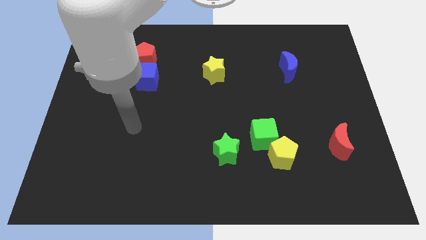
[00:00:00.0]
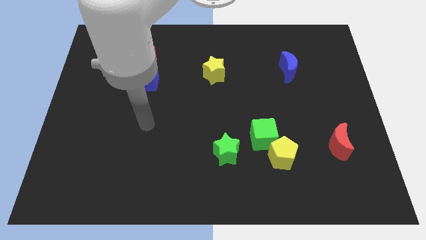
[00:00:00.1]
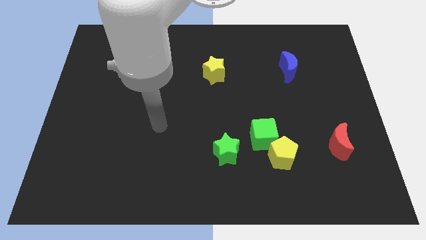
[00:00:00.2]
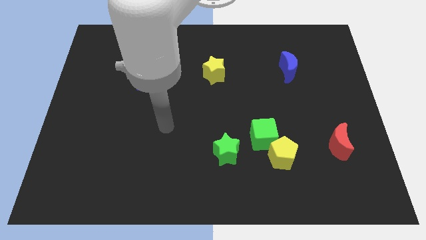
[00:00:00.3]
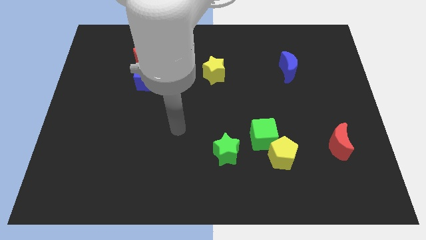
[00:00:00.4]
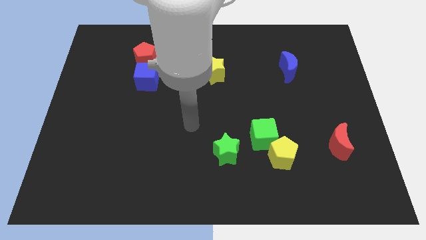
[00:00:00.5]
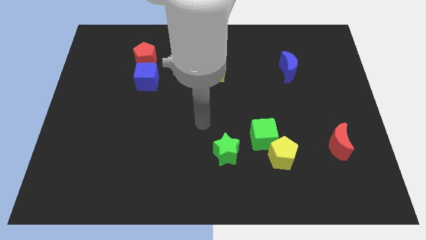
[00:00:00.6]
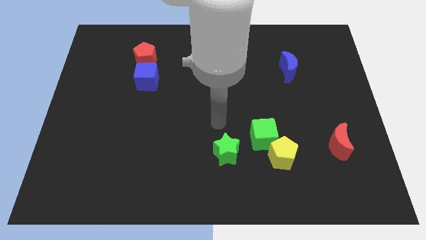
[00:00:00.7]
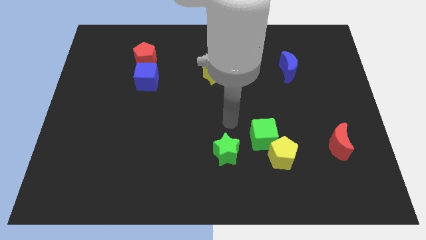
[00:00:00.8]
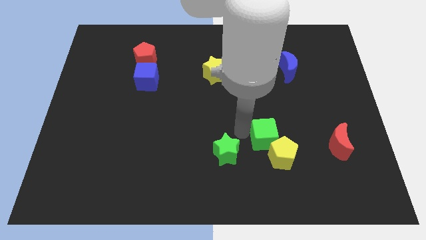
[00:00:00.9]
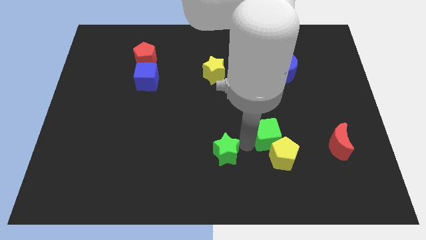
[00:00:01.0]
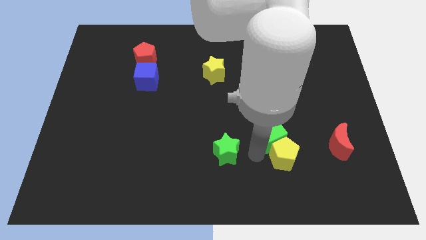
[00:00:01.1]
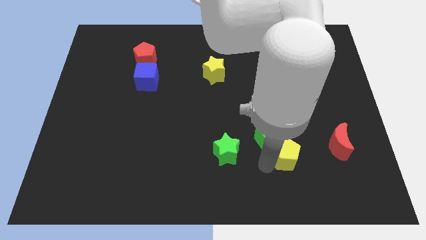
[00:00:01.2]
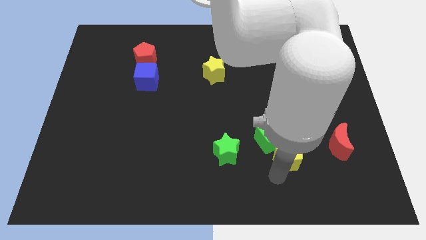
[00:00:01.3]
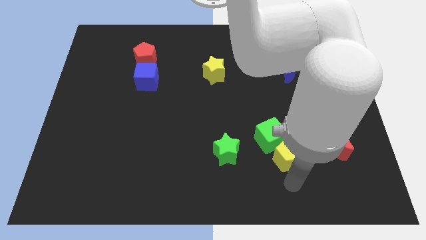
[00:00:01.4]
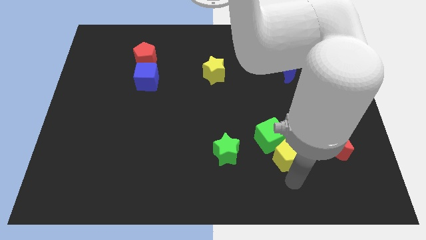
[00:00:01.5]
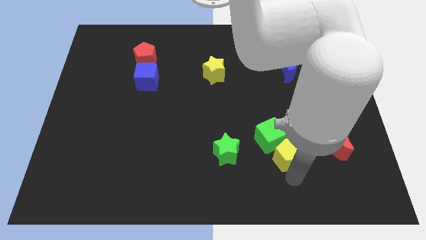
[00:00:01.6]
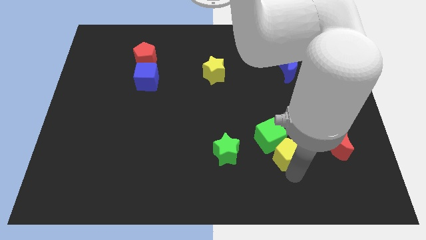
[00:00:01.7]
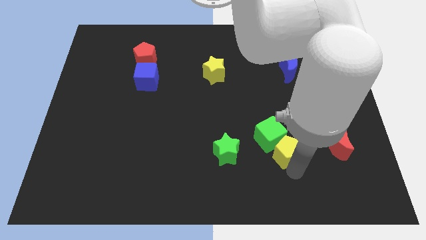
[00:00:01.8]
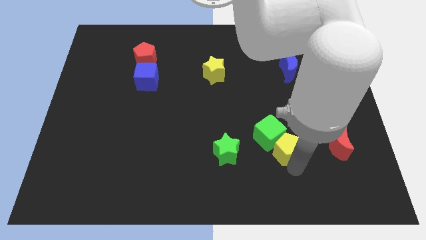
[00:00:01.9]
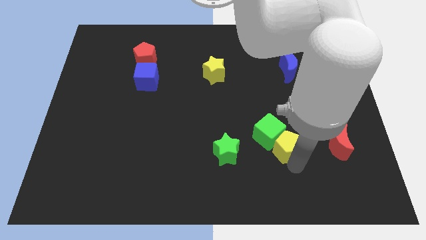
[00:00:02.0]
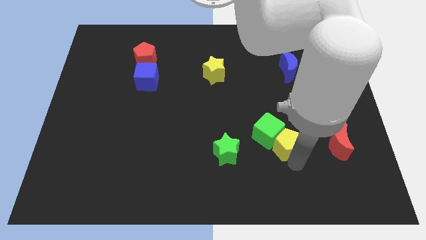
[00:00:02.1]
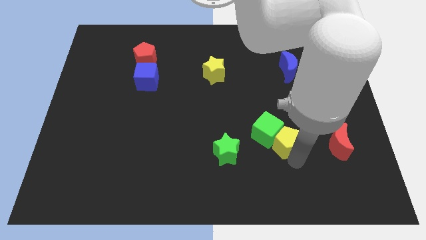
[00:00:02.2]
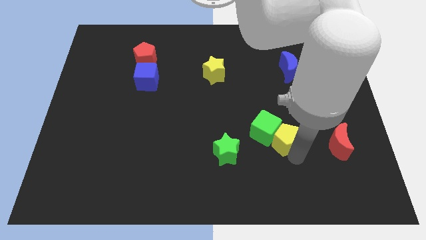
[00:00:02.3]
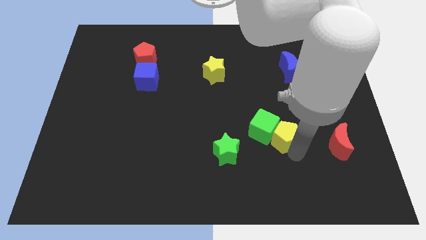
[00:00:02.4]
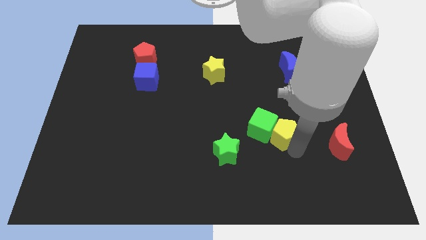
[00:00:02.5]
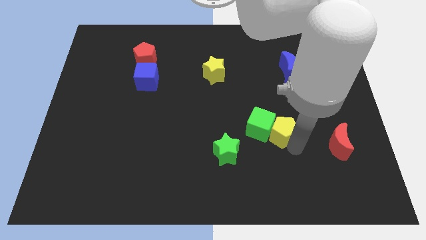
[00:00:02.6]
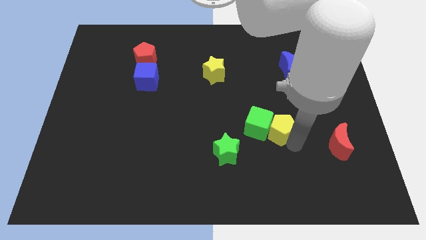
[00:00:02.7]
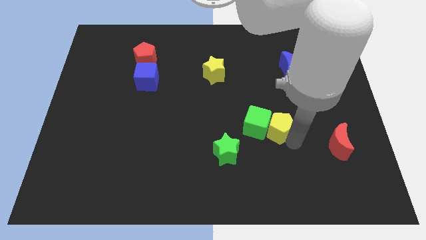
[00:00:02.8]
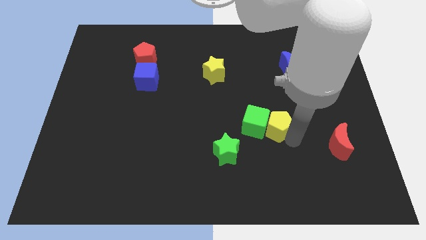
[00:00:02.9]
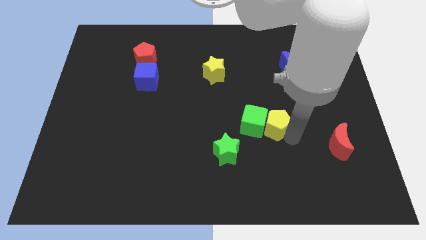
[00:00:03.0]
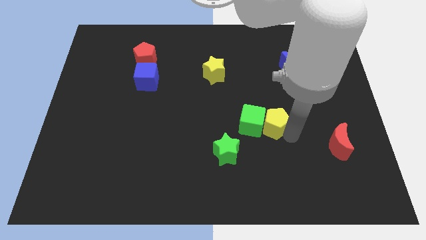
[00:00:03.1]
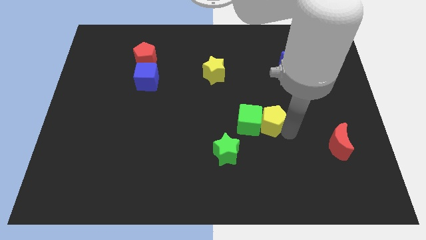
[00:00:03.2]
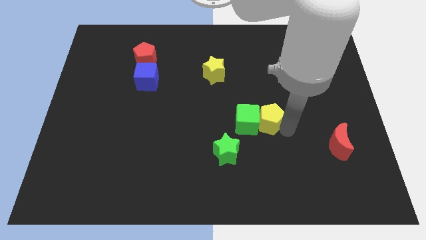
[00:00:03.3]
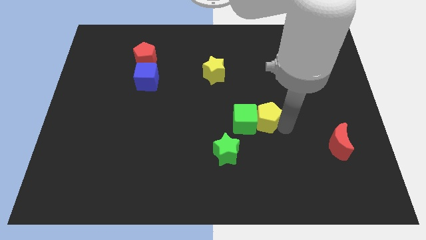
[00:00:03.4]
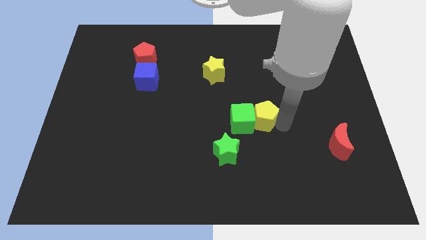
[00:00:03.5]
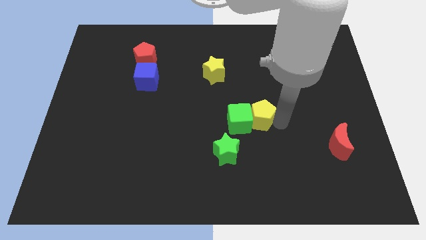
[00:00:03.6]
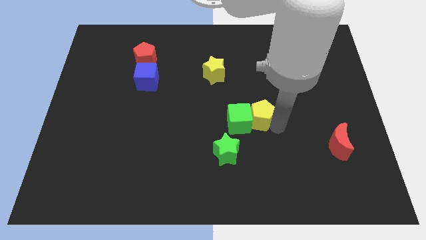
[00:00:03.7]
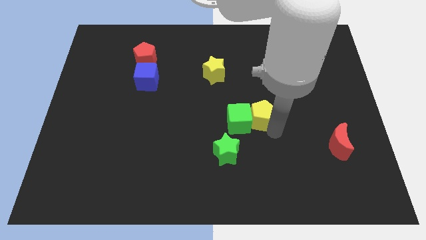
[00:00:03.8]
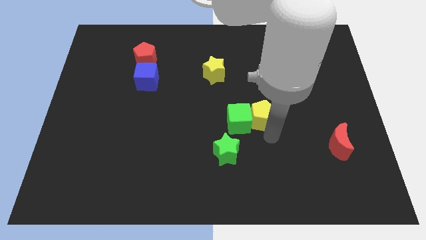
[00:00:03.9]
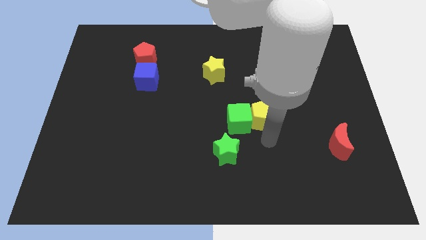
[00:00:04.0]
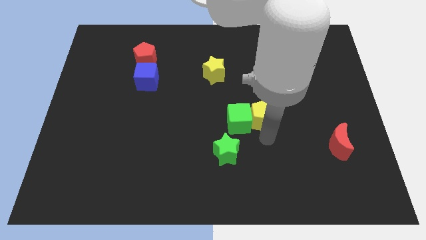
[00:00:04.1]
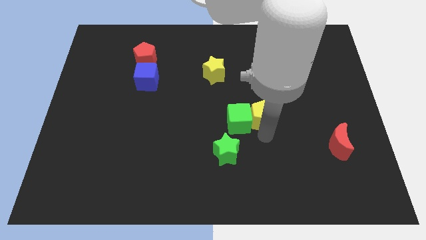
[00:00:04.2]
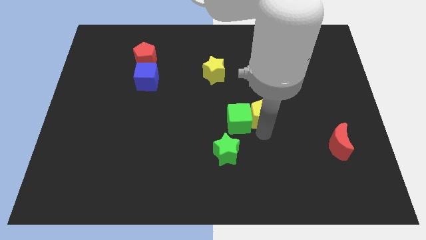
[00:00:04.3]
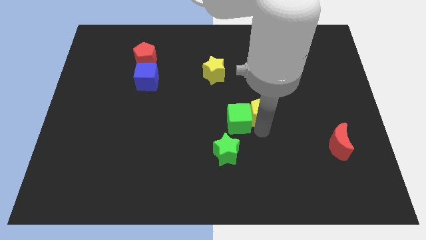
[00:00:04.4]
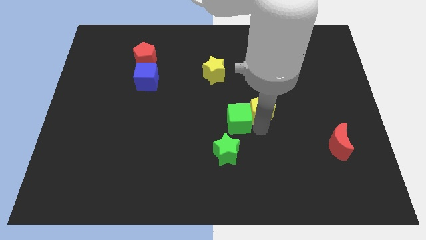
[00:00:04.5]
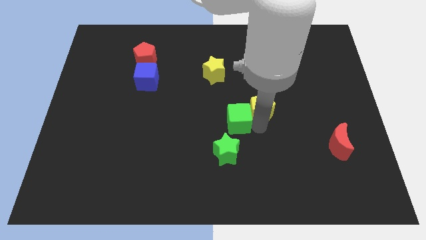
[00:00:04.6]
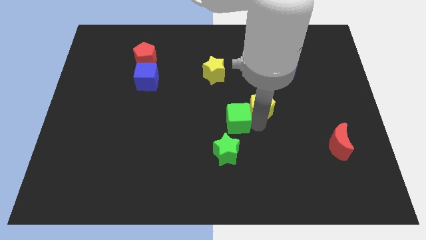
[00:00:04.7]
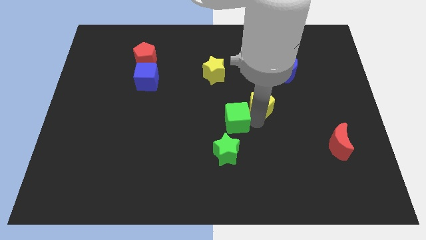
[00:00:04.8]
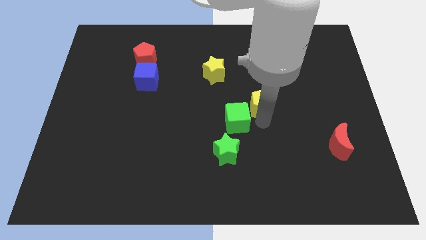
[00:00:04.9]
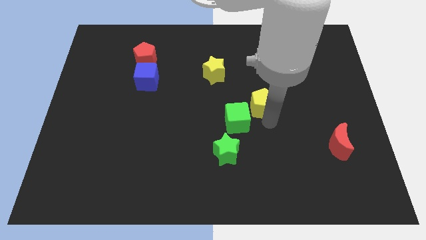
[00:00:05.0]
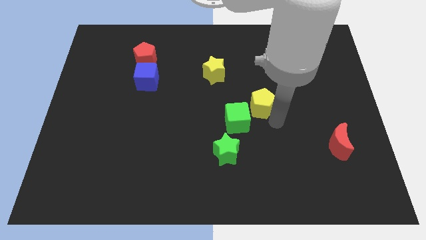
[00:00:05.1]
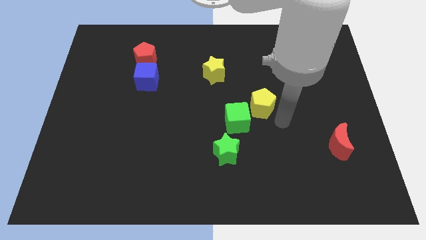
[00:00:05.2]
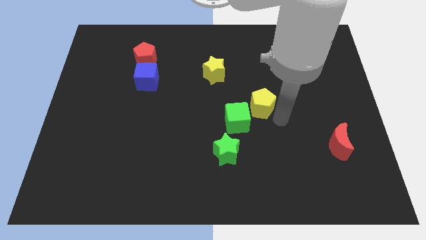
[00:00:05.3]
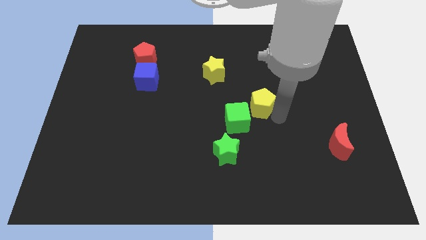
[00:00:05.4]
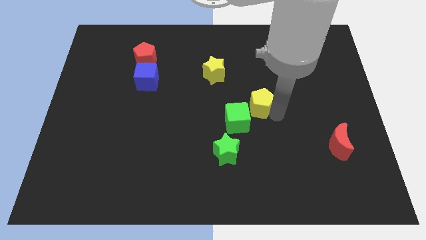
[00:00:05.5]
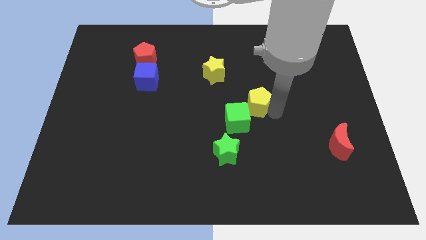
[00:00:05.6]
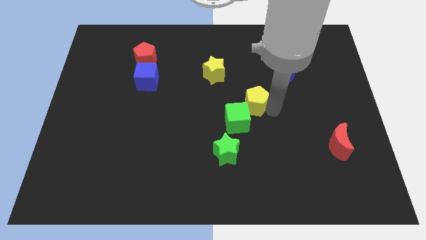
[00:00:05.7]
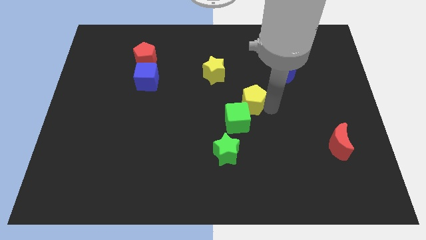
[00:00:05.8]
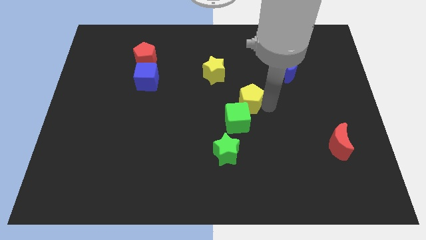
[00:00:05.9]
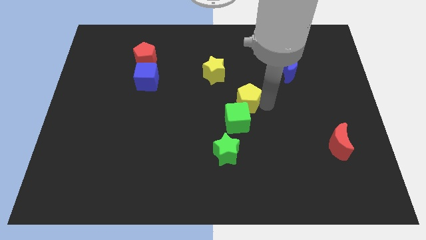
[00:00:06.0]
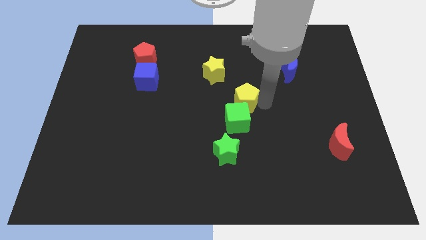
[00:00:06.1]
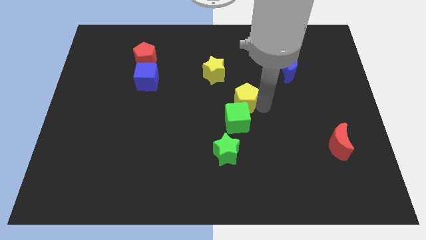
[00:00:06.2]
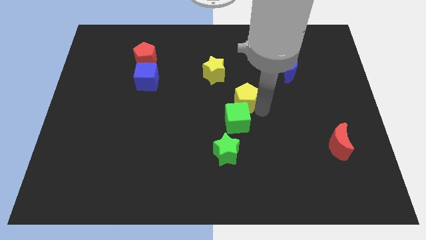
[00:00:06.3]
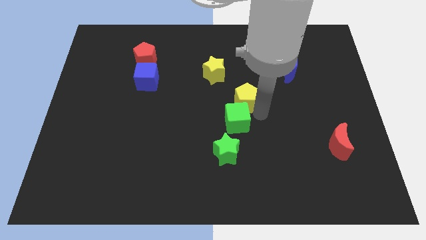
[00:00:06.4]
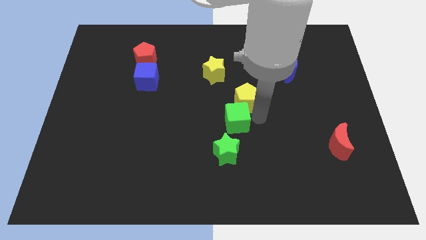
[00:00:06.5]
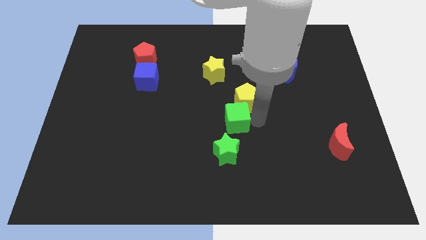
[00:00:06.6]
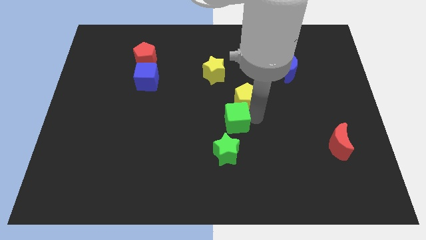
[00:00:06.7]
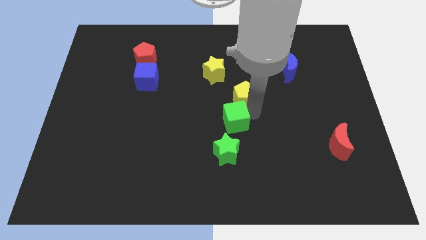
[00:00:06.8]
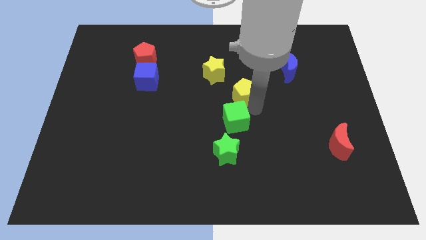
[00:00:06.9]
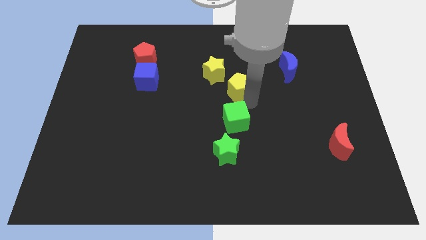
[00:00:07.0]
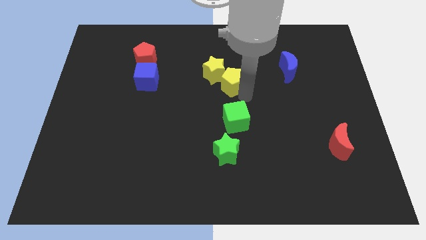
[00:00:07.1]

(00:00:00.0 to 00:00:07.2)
push the yellow pentagon towards the yellow star

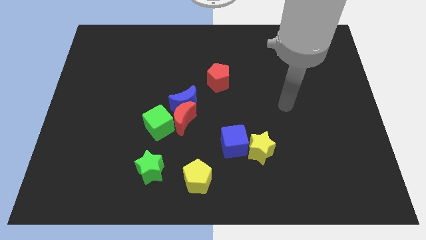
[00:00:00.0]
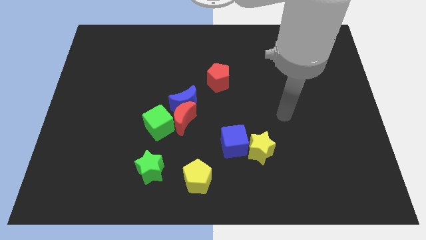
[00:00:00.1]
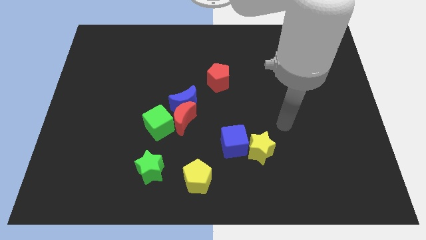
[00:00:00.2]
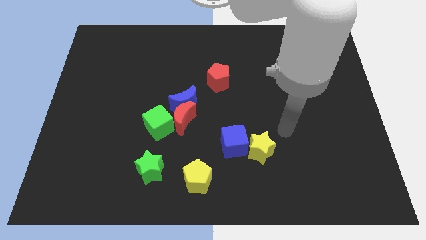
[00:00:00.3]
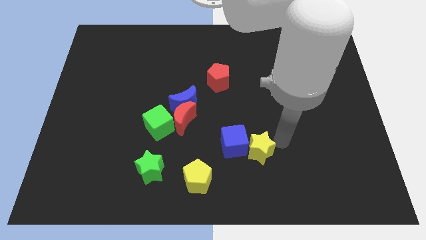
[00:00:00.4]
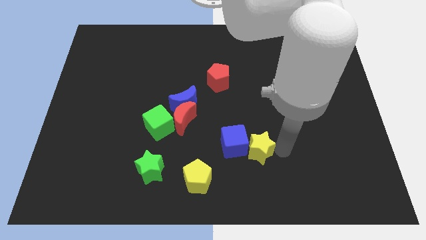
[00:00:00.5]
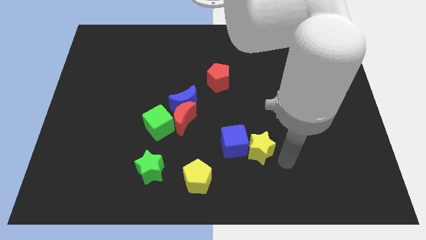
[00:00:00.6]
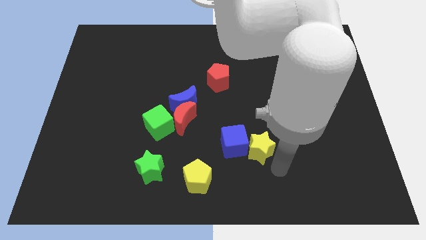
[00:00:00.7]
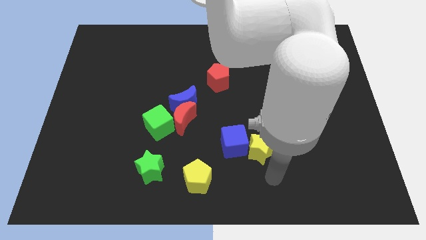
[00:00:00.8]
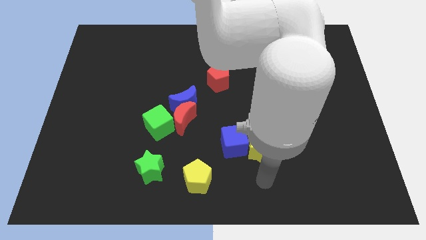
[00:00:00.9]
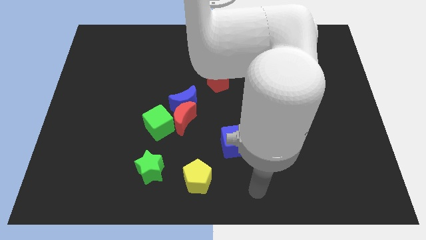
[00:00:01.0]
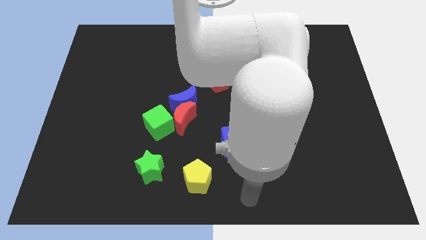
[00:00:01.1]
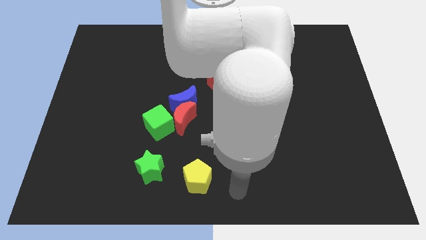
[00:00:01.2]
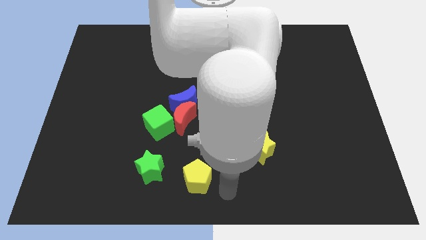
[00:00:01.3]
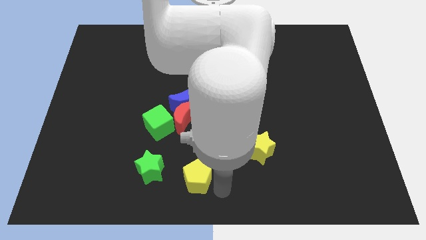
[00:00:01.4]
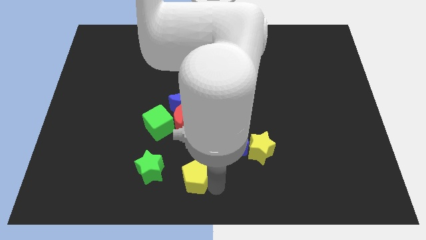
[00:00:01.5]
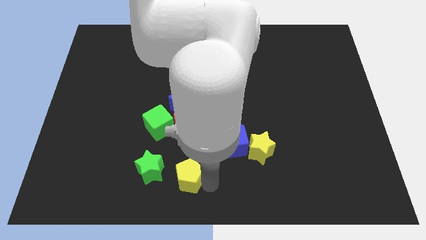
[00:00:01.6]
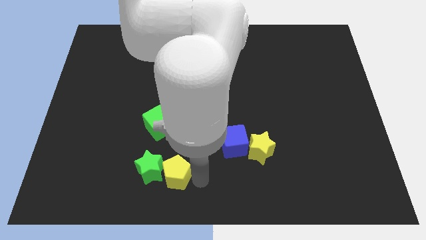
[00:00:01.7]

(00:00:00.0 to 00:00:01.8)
move the yellow pentagon to the green star
